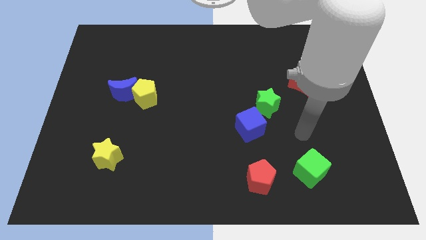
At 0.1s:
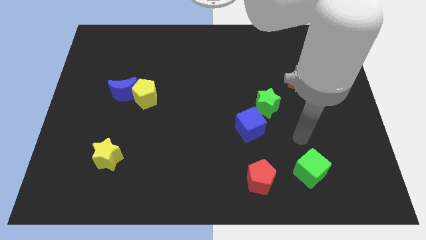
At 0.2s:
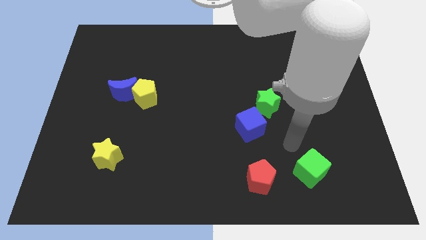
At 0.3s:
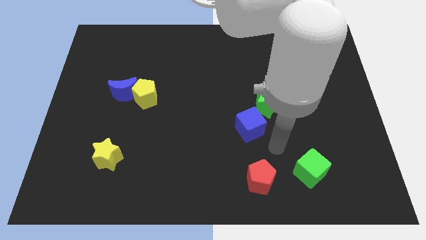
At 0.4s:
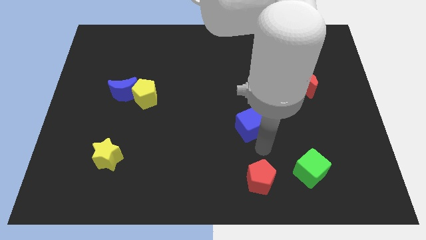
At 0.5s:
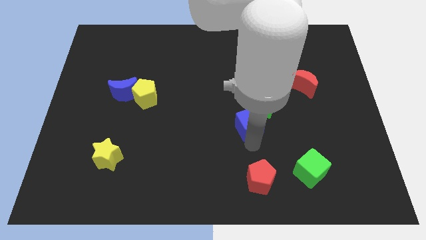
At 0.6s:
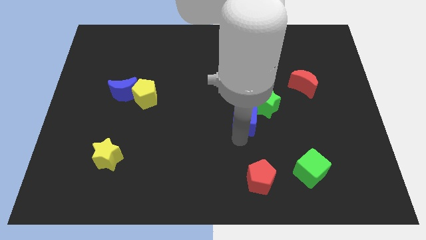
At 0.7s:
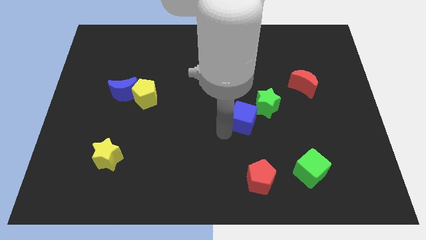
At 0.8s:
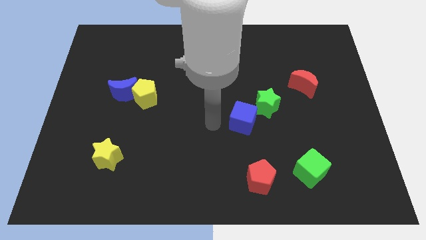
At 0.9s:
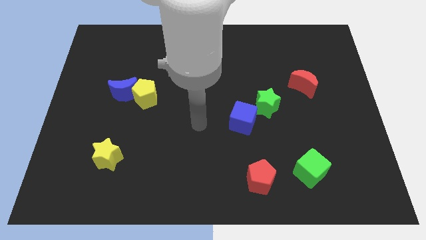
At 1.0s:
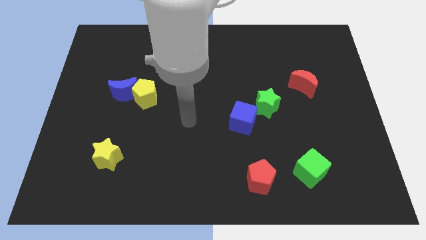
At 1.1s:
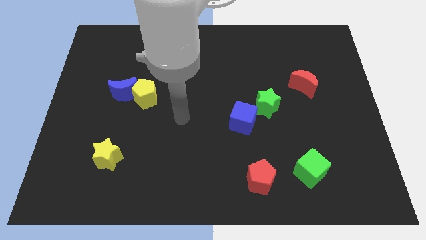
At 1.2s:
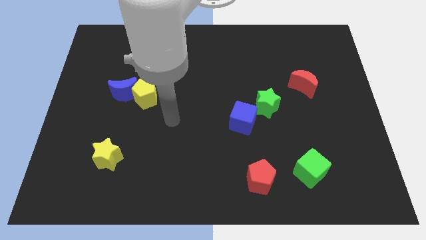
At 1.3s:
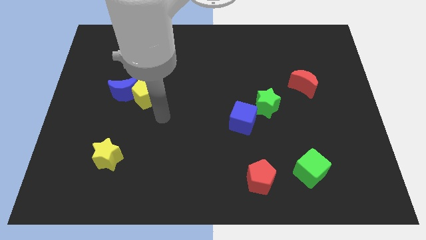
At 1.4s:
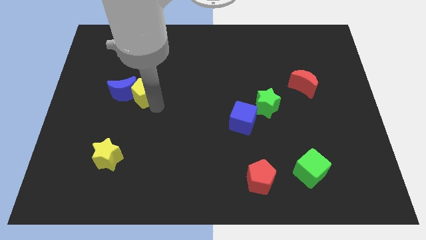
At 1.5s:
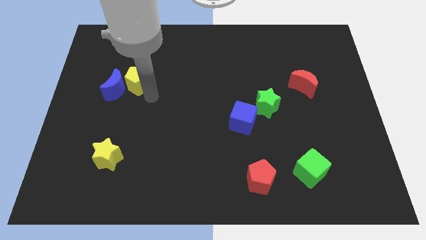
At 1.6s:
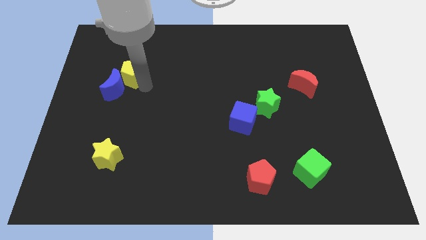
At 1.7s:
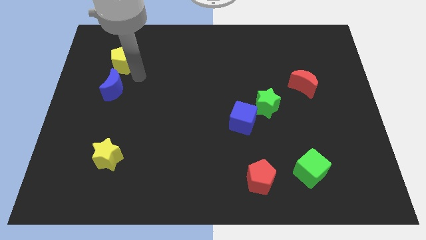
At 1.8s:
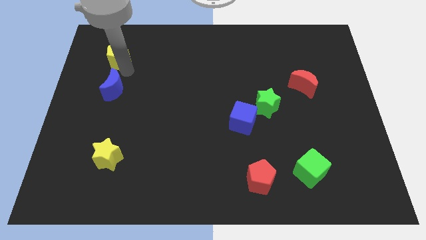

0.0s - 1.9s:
separate the blue moon from the yellow pentagon

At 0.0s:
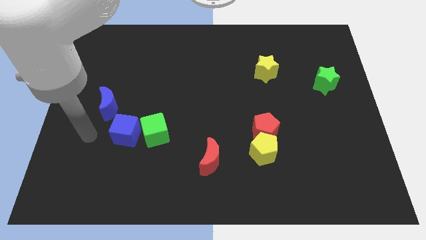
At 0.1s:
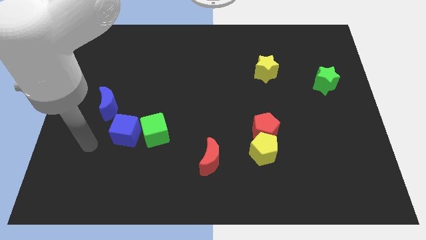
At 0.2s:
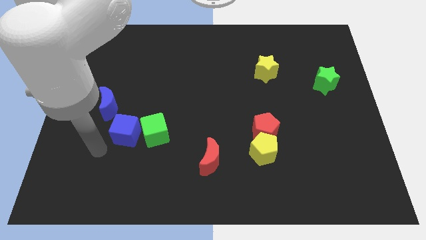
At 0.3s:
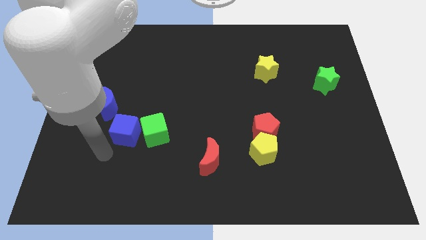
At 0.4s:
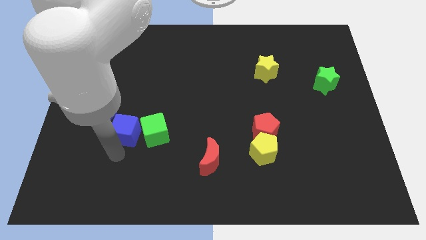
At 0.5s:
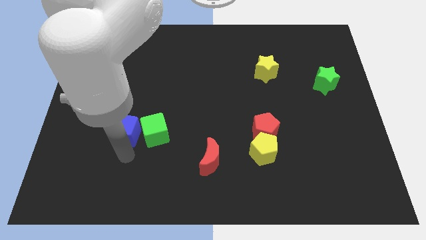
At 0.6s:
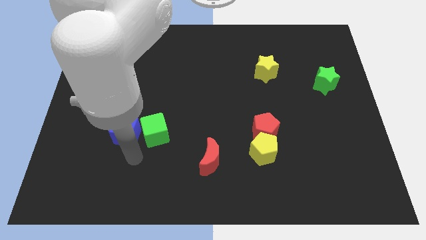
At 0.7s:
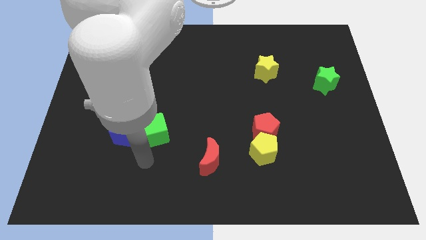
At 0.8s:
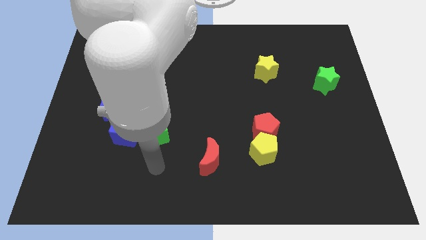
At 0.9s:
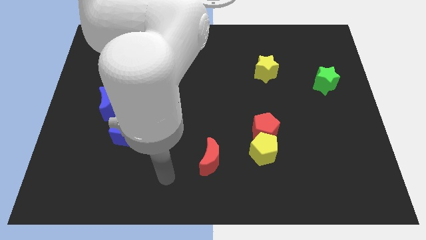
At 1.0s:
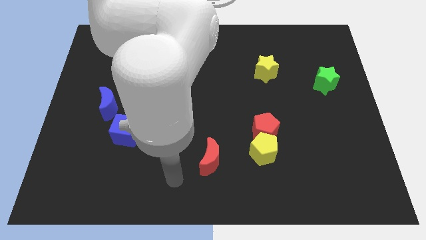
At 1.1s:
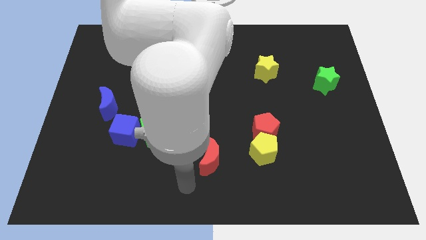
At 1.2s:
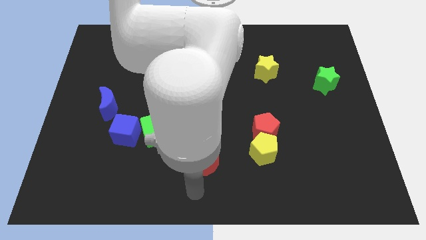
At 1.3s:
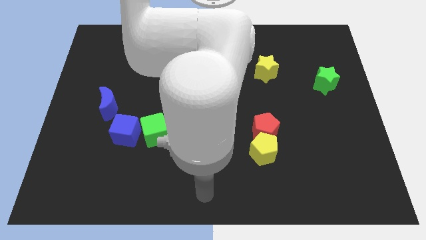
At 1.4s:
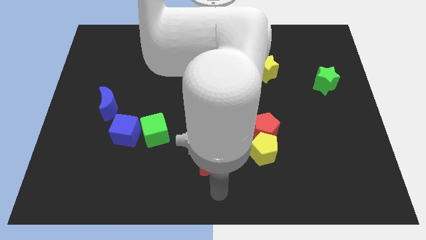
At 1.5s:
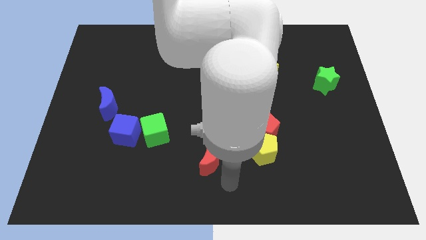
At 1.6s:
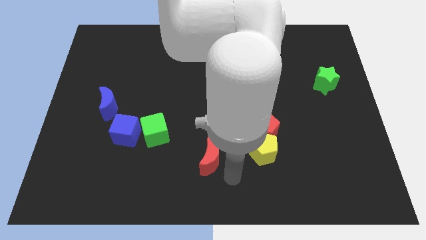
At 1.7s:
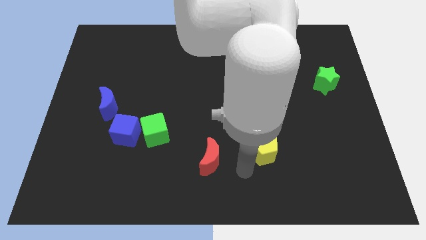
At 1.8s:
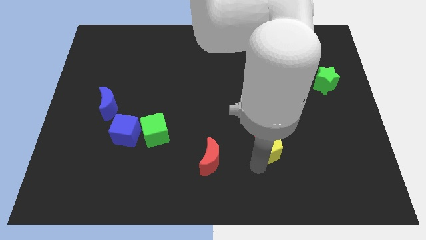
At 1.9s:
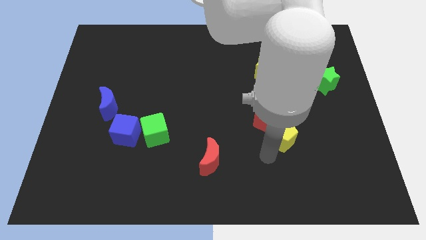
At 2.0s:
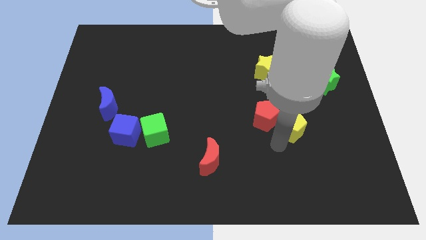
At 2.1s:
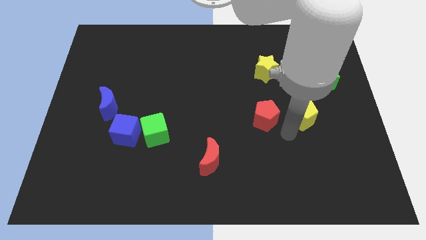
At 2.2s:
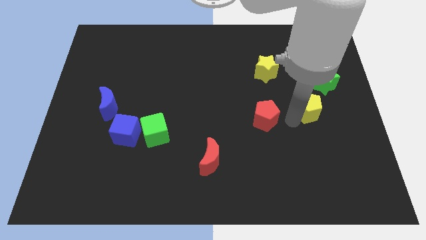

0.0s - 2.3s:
pull the red pentagon apart from the yellow pentagon

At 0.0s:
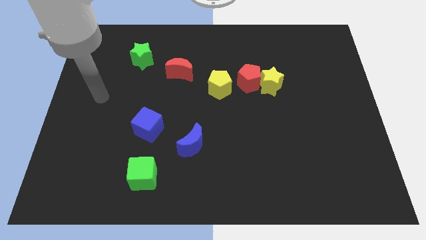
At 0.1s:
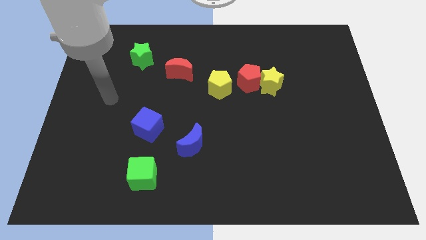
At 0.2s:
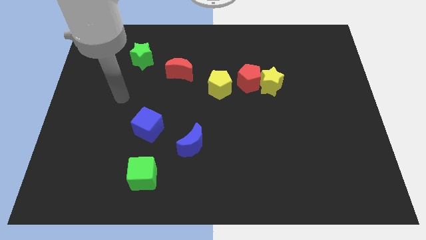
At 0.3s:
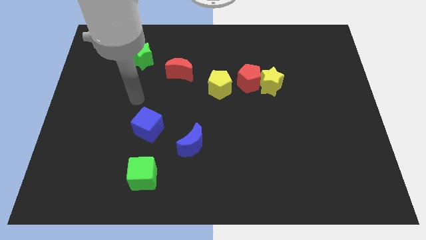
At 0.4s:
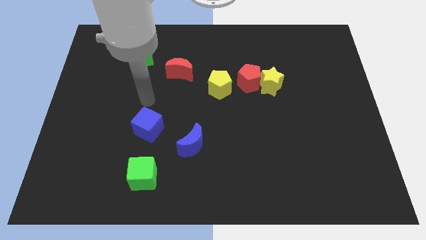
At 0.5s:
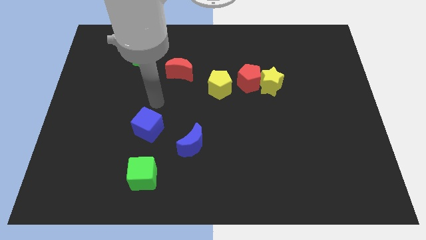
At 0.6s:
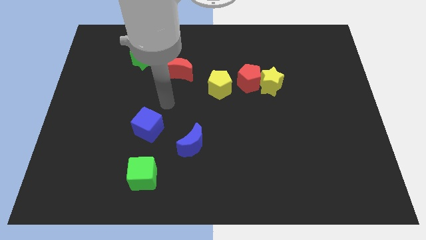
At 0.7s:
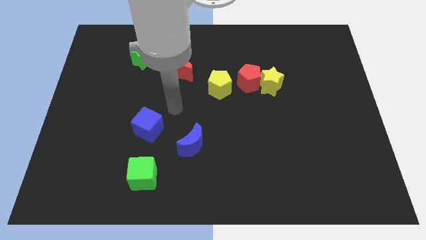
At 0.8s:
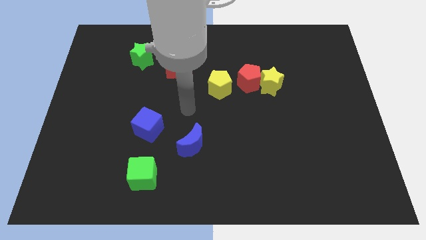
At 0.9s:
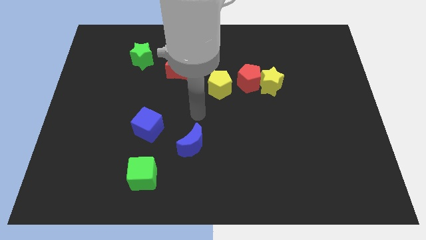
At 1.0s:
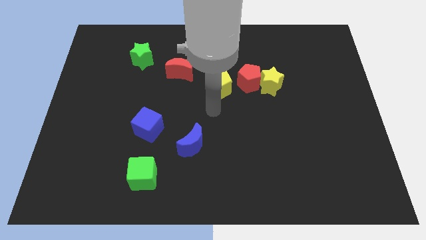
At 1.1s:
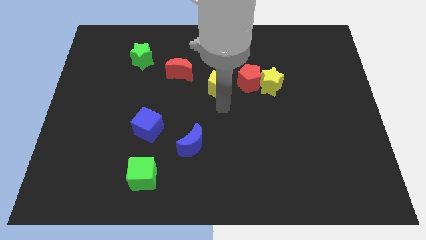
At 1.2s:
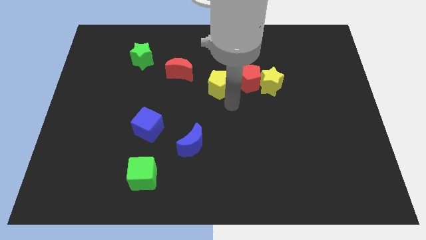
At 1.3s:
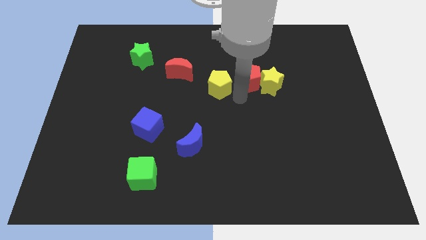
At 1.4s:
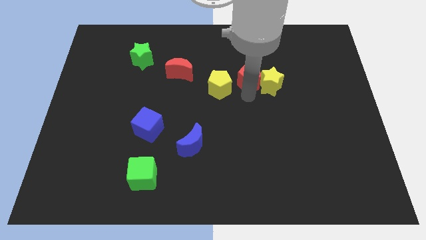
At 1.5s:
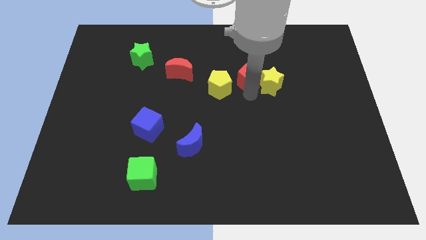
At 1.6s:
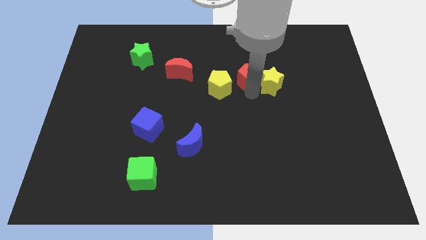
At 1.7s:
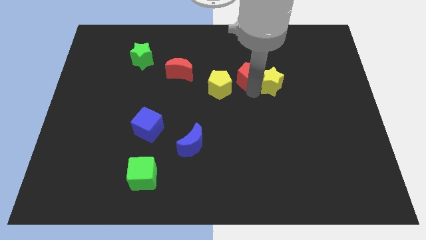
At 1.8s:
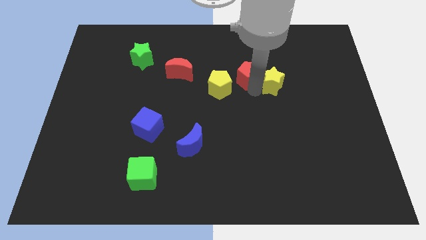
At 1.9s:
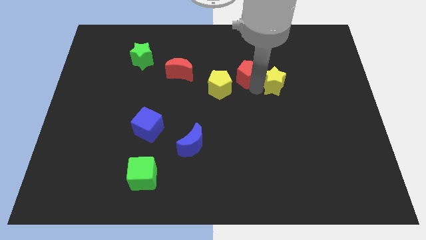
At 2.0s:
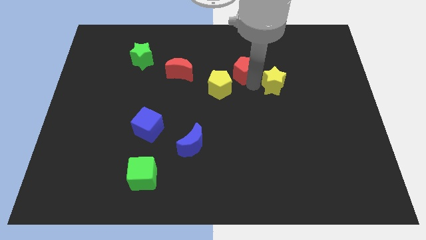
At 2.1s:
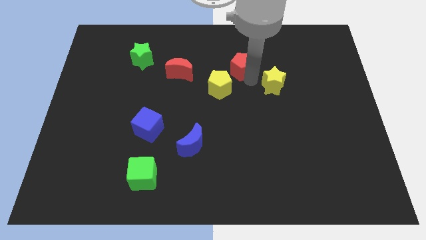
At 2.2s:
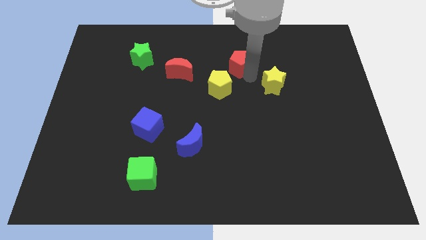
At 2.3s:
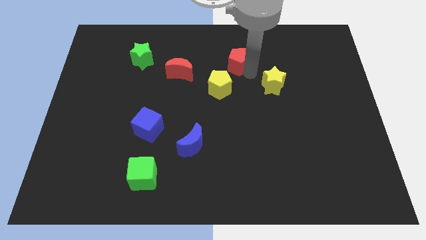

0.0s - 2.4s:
pull the yellow star apart from the red pentagon

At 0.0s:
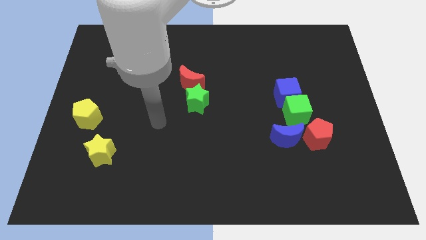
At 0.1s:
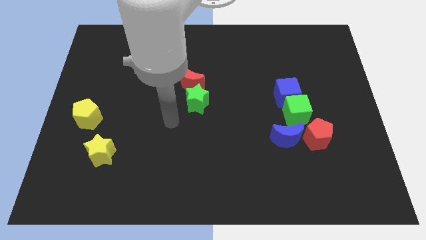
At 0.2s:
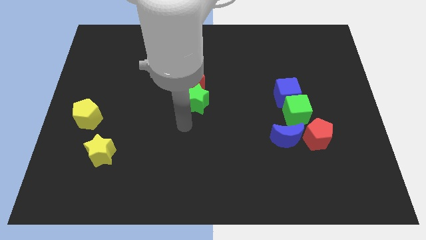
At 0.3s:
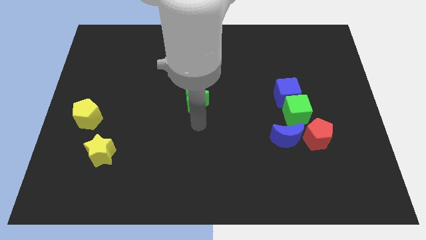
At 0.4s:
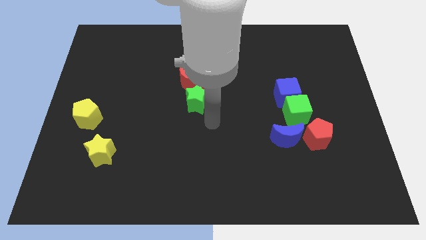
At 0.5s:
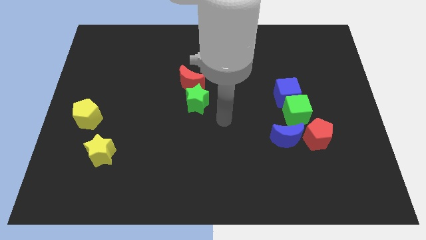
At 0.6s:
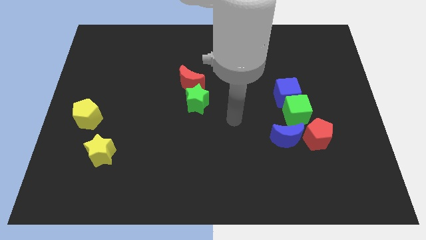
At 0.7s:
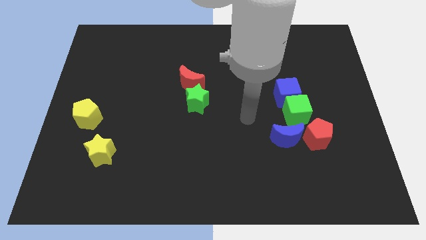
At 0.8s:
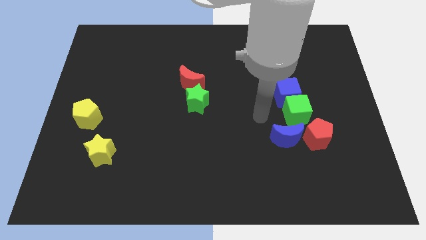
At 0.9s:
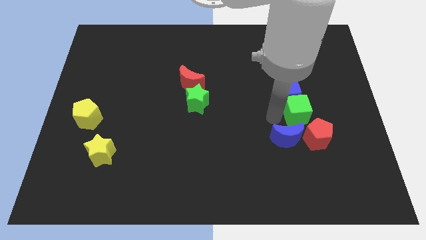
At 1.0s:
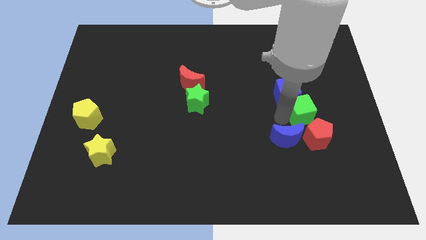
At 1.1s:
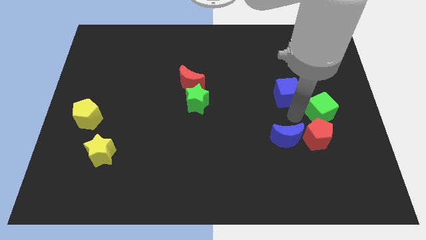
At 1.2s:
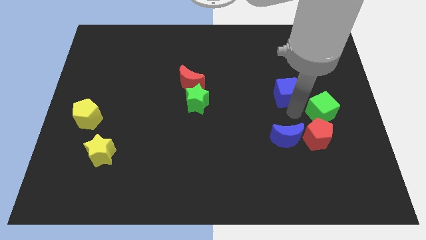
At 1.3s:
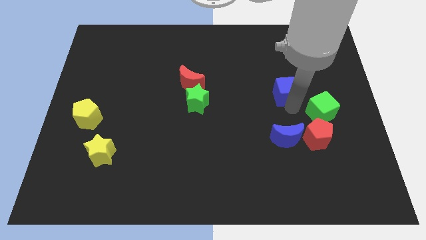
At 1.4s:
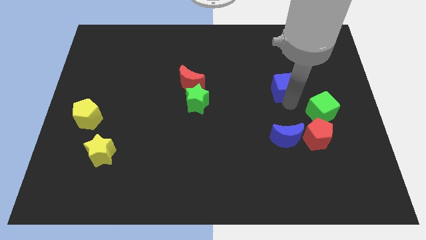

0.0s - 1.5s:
pull the blue cube apart from the green cube

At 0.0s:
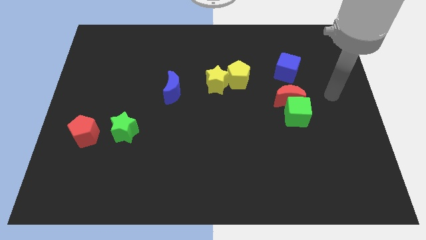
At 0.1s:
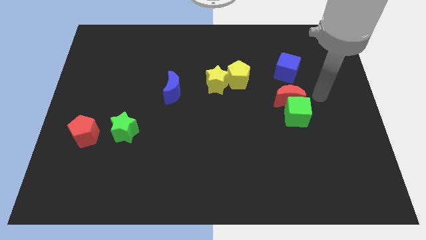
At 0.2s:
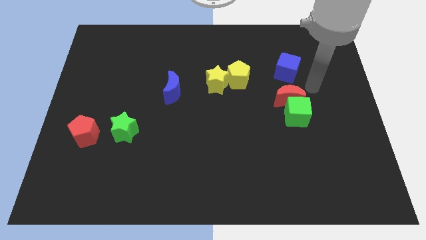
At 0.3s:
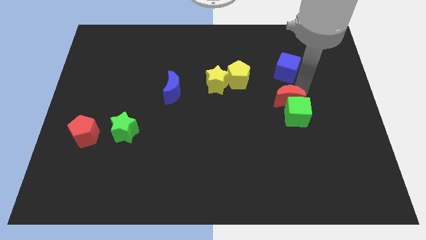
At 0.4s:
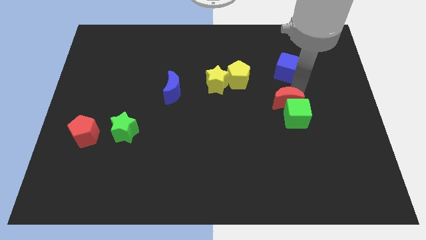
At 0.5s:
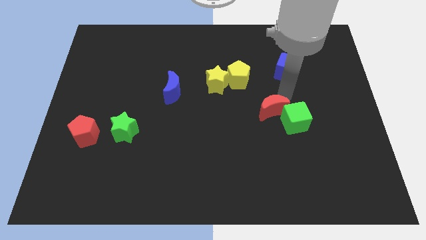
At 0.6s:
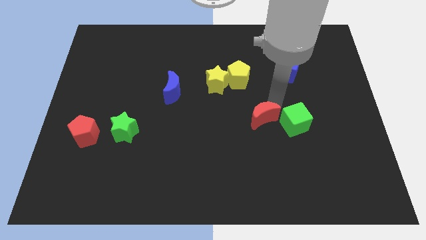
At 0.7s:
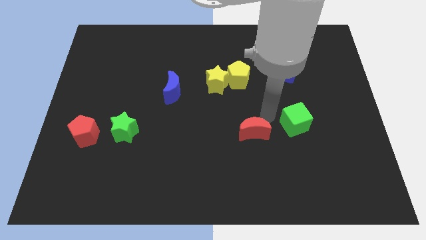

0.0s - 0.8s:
move the green cube away from the red moon

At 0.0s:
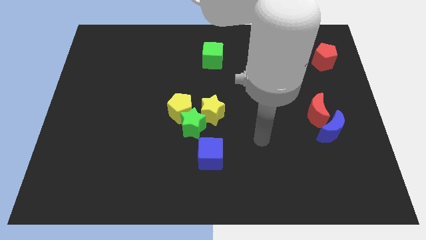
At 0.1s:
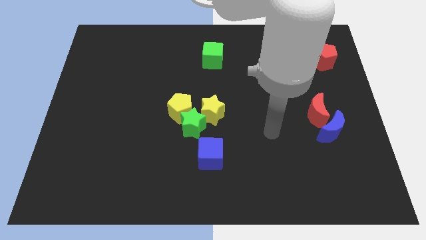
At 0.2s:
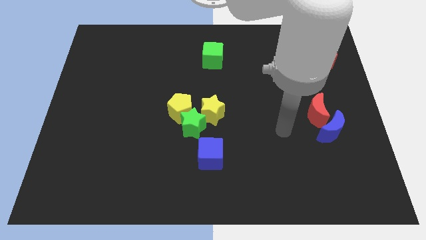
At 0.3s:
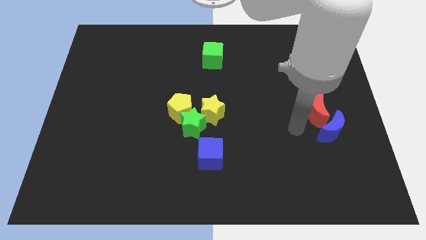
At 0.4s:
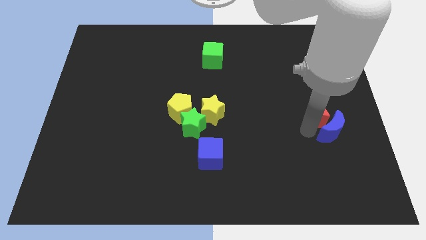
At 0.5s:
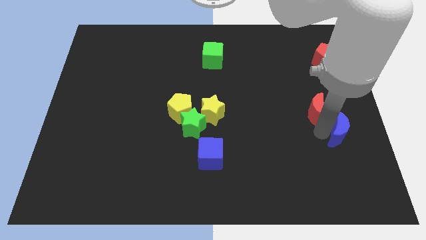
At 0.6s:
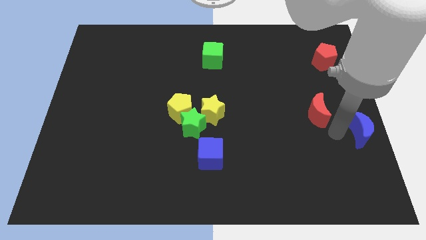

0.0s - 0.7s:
separate the red moon from the blue moon
